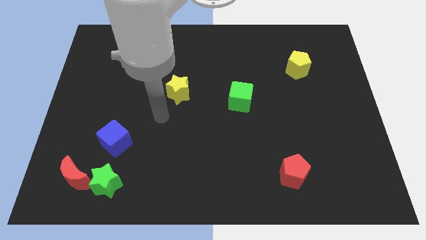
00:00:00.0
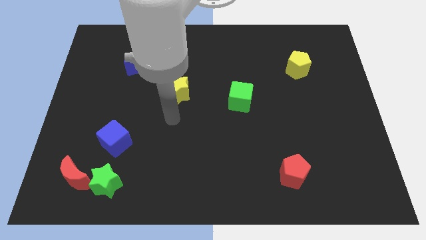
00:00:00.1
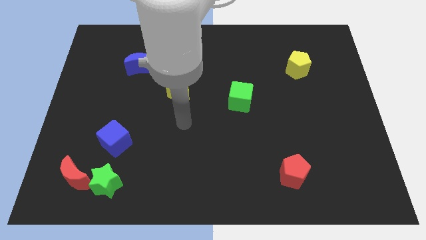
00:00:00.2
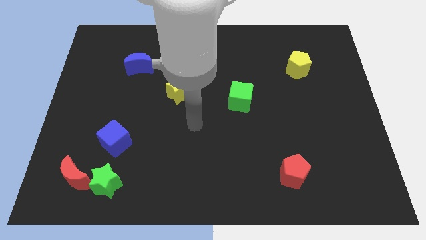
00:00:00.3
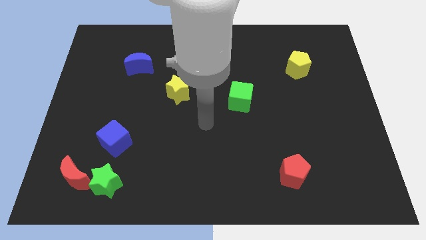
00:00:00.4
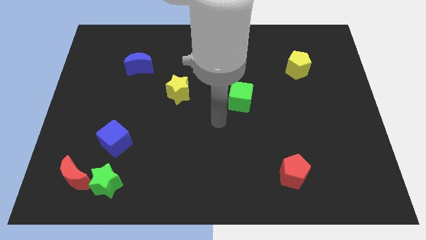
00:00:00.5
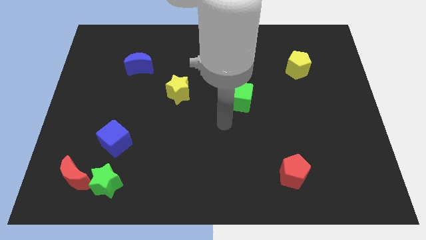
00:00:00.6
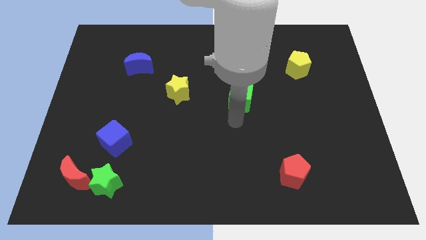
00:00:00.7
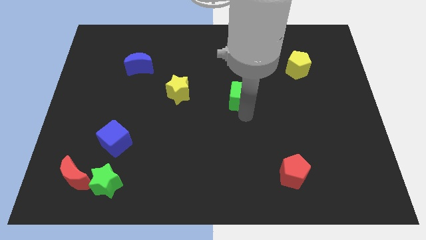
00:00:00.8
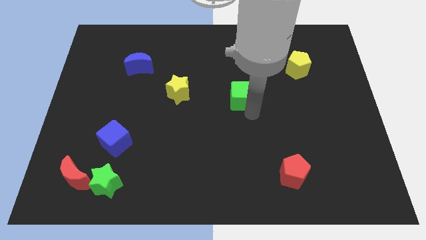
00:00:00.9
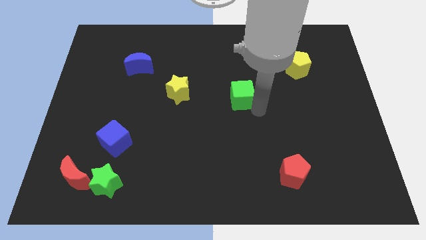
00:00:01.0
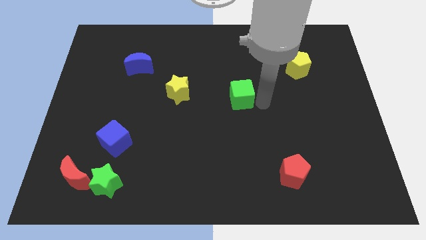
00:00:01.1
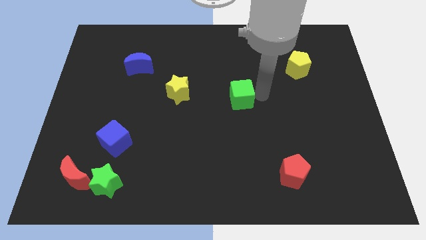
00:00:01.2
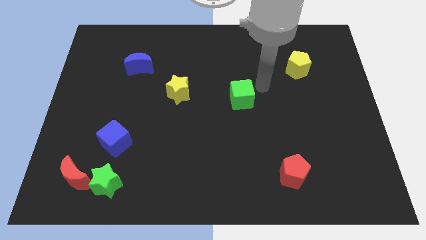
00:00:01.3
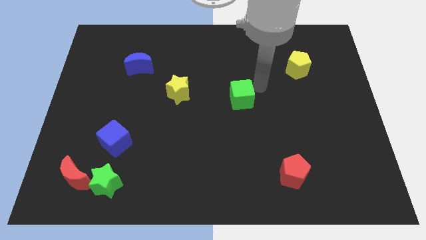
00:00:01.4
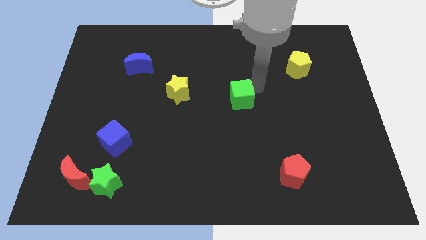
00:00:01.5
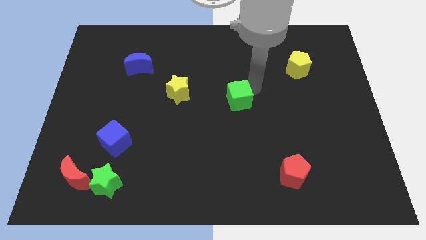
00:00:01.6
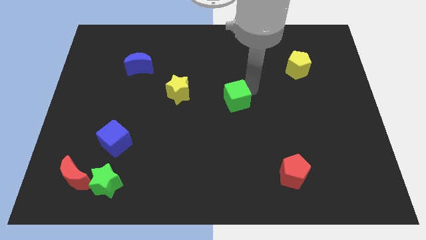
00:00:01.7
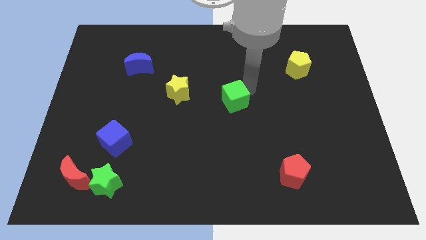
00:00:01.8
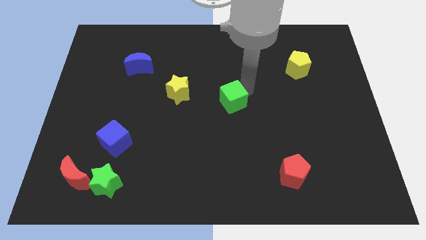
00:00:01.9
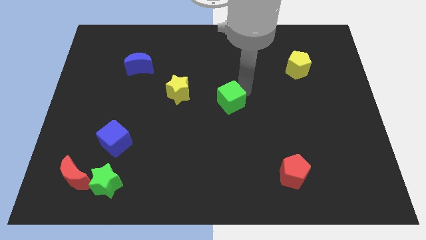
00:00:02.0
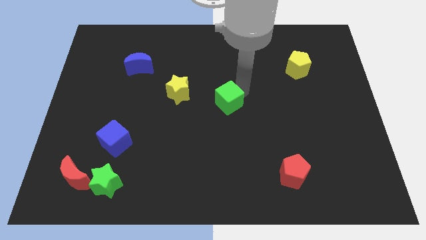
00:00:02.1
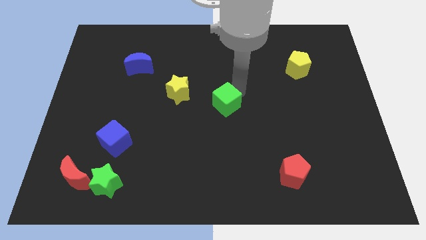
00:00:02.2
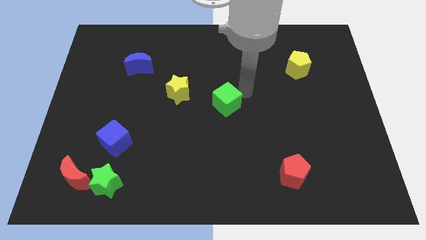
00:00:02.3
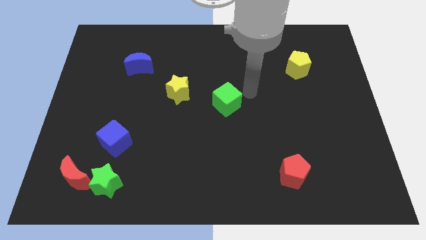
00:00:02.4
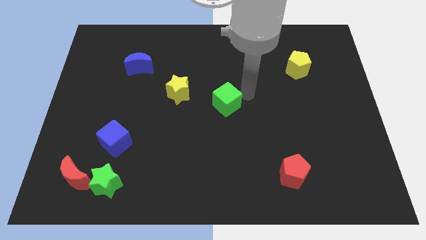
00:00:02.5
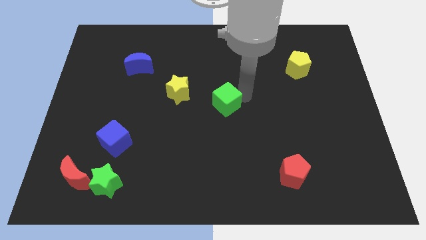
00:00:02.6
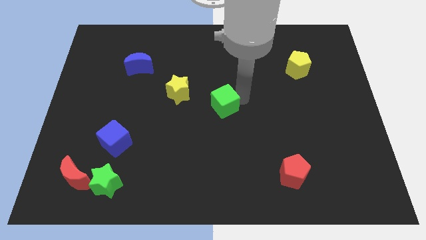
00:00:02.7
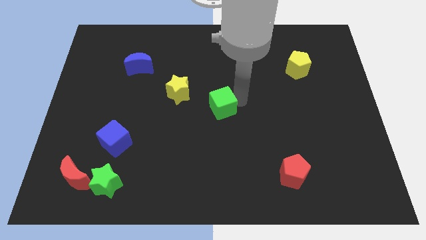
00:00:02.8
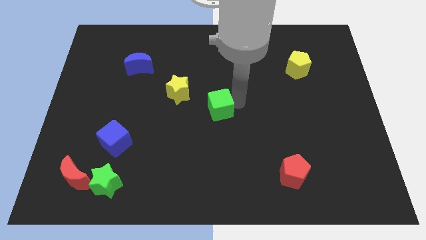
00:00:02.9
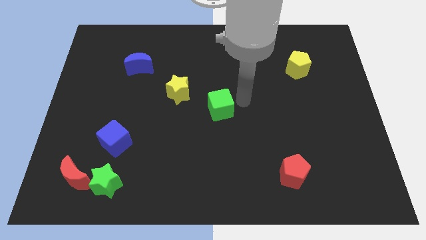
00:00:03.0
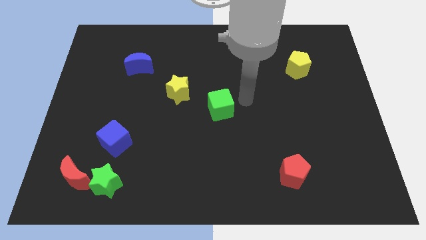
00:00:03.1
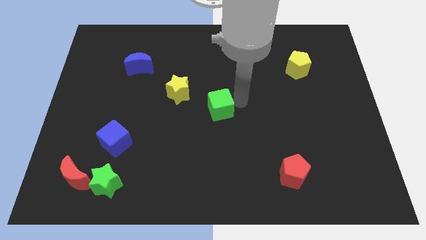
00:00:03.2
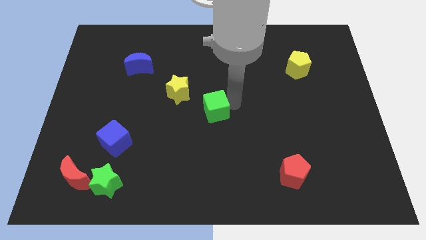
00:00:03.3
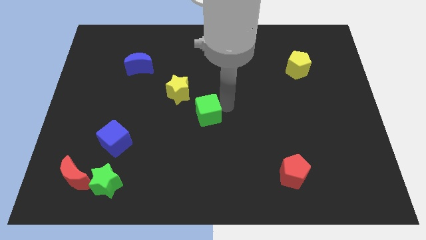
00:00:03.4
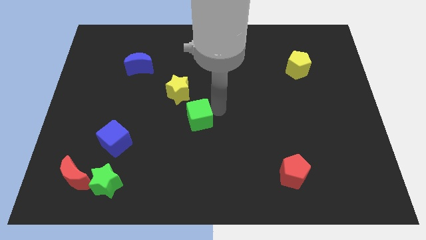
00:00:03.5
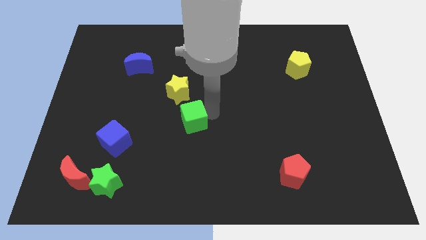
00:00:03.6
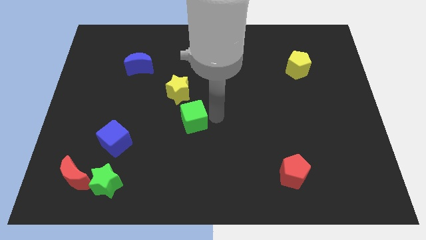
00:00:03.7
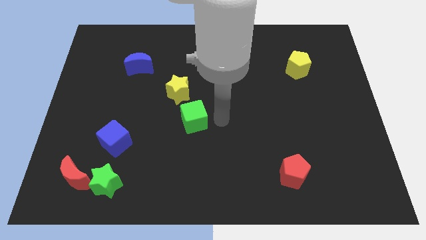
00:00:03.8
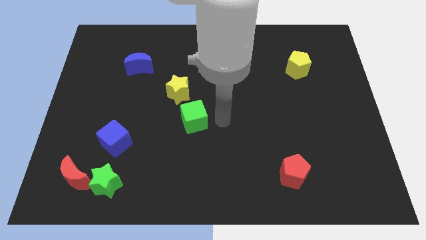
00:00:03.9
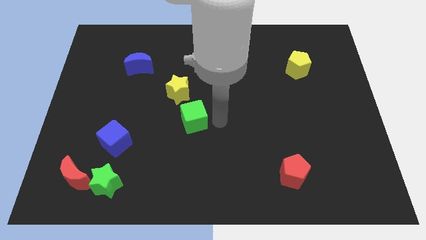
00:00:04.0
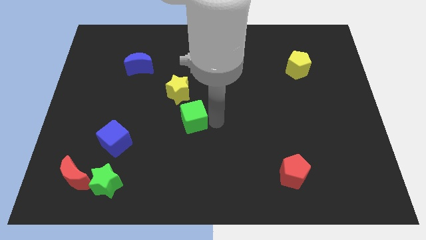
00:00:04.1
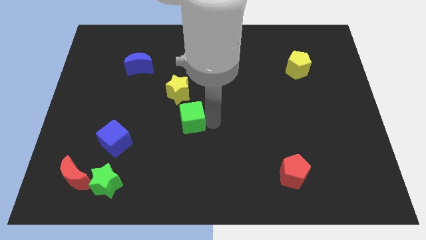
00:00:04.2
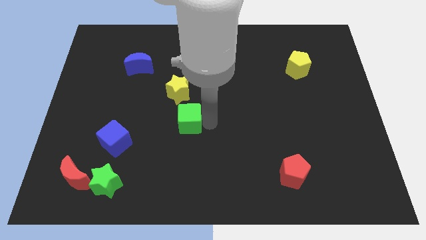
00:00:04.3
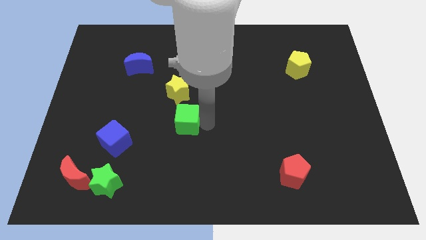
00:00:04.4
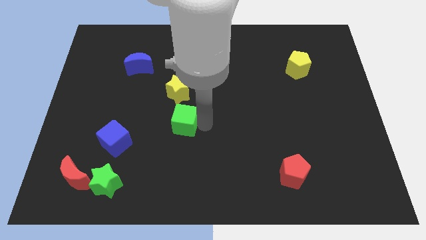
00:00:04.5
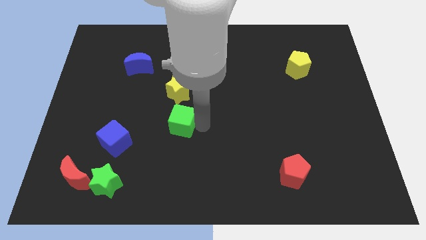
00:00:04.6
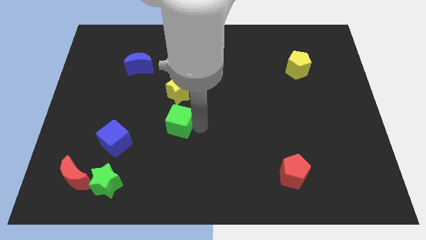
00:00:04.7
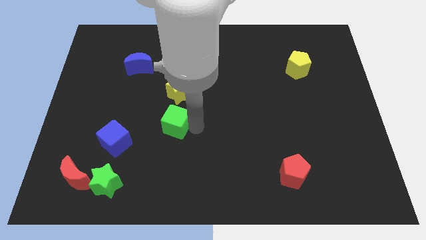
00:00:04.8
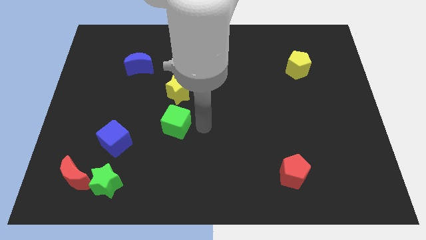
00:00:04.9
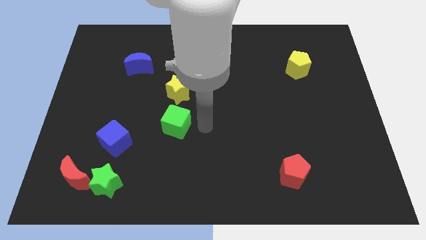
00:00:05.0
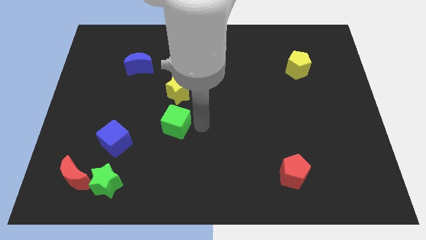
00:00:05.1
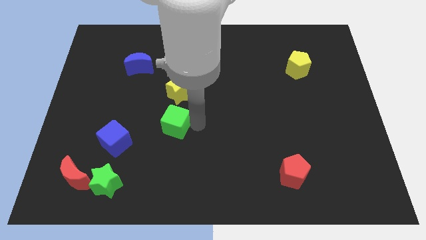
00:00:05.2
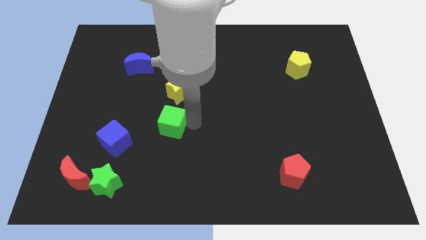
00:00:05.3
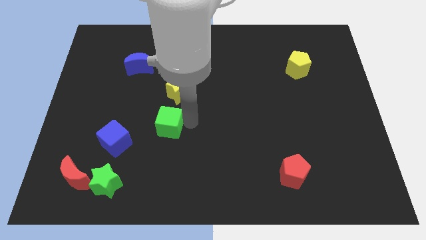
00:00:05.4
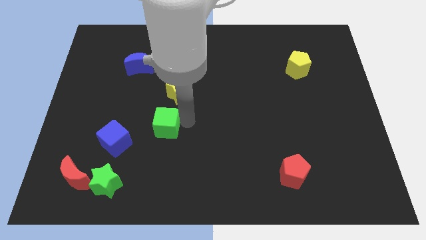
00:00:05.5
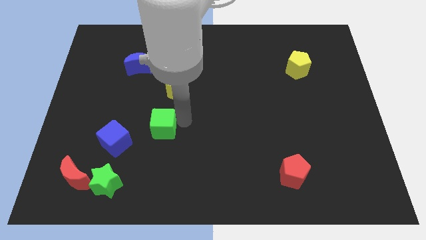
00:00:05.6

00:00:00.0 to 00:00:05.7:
move the green cube diagonally up and to the right of the blue cube

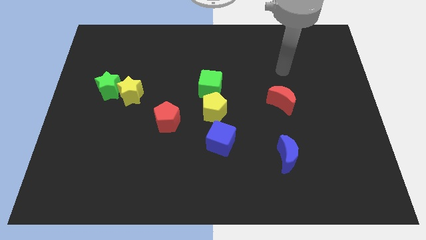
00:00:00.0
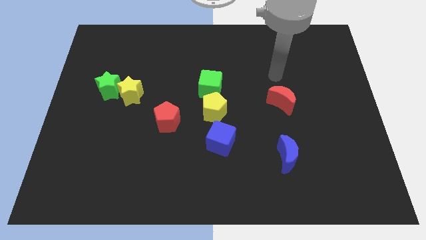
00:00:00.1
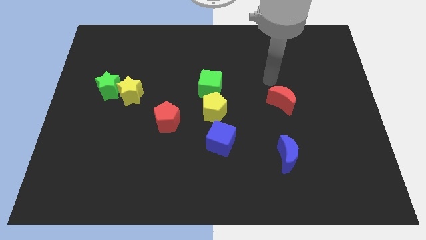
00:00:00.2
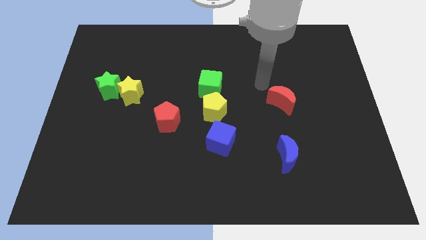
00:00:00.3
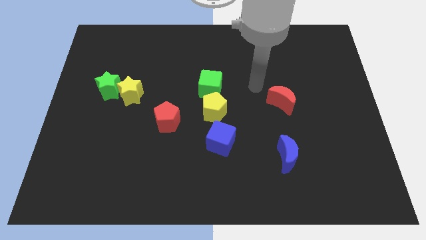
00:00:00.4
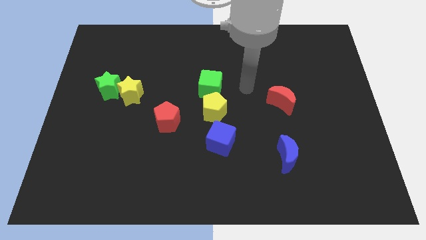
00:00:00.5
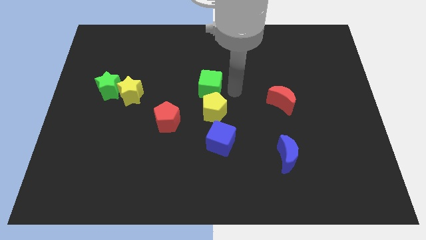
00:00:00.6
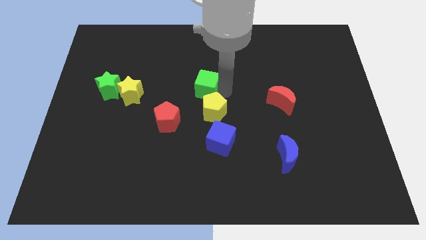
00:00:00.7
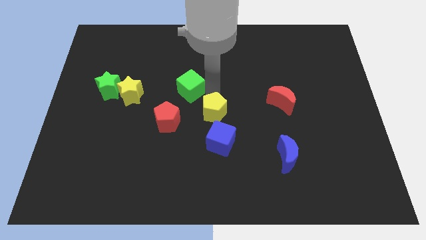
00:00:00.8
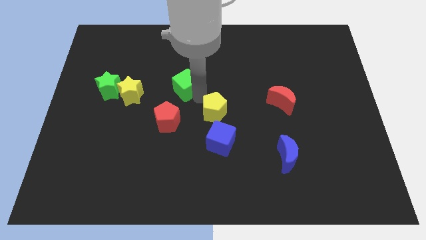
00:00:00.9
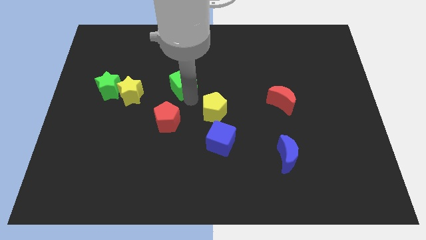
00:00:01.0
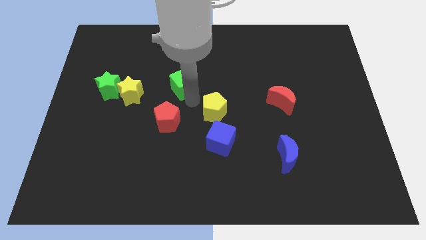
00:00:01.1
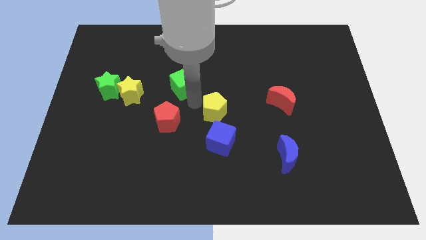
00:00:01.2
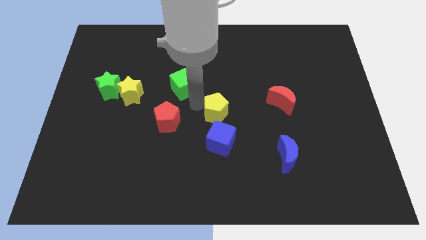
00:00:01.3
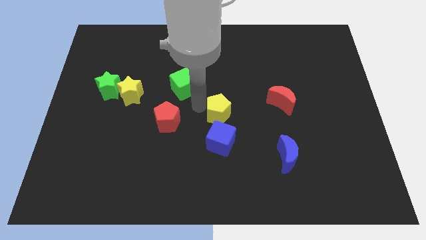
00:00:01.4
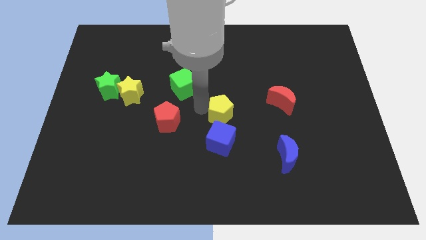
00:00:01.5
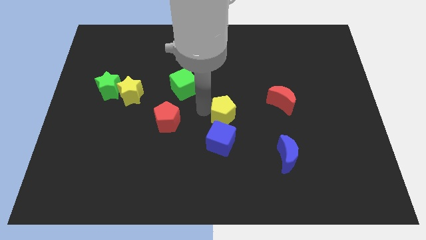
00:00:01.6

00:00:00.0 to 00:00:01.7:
push the yellow pentagon diagonally up and to the right of the blue cube
